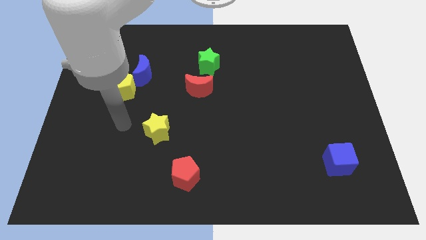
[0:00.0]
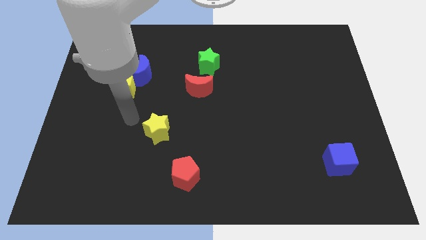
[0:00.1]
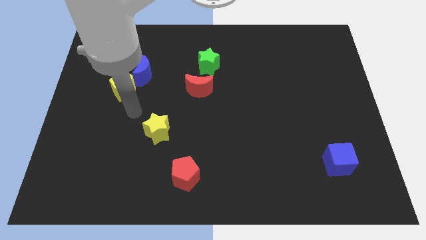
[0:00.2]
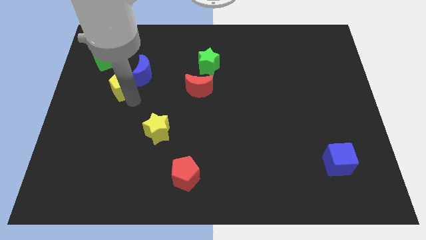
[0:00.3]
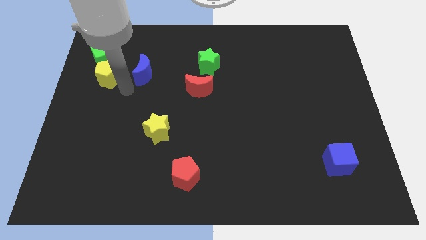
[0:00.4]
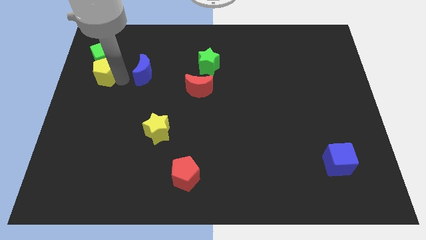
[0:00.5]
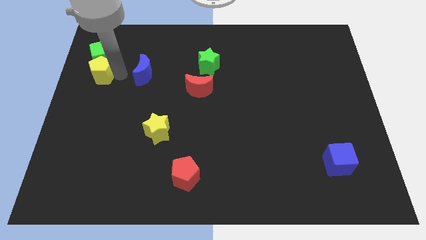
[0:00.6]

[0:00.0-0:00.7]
move the blue moon away from the yellow pentagon

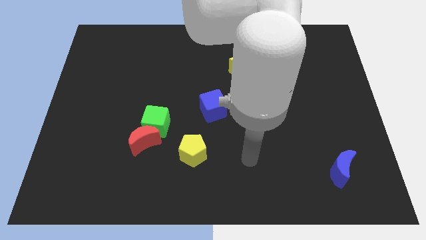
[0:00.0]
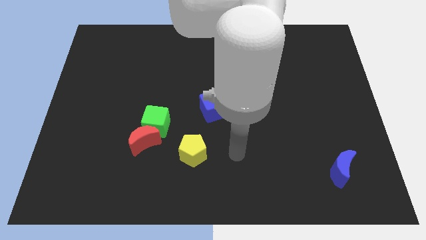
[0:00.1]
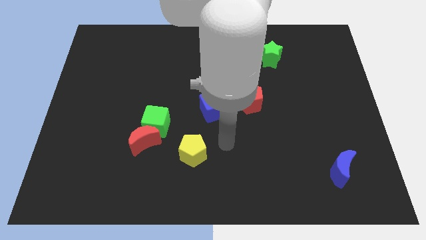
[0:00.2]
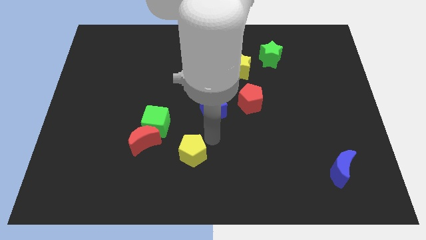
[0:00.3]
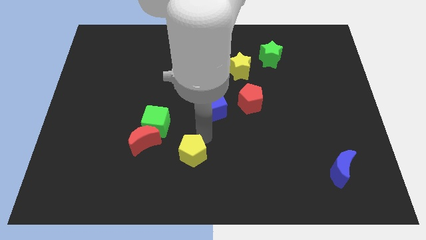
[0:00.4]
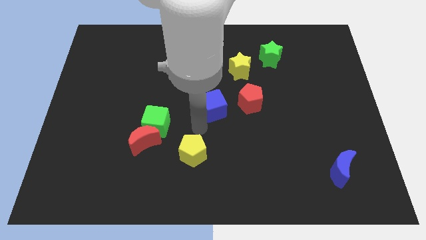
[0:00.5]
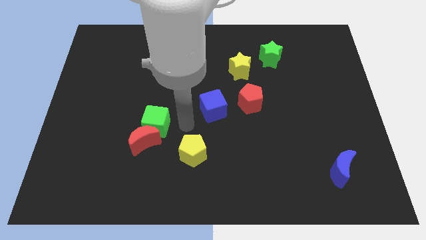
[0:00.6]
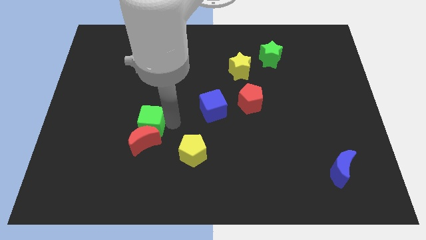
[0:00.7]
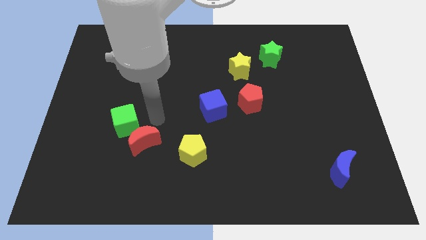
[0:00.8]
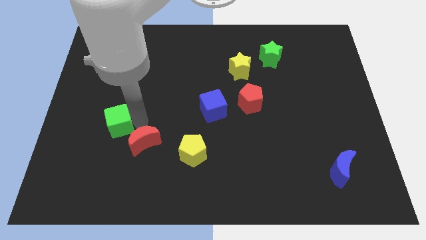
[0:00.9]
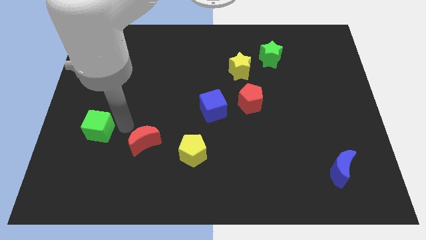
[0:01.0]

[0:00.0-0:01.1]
move the red moon away from the green cube

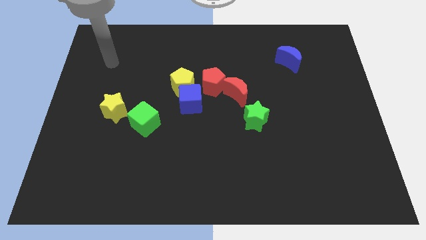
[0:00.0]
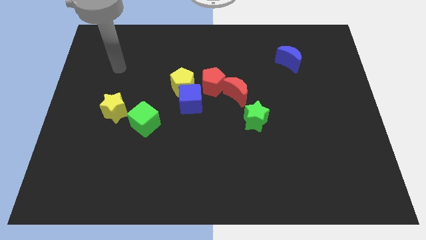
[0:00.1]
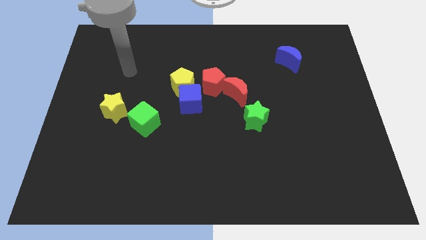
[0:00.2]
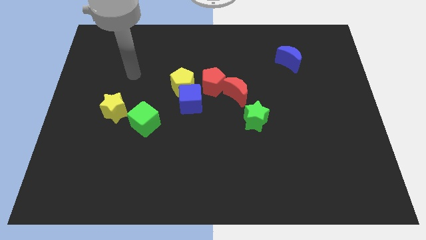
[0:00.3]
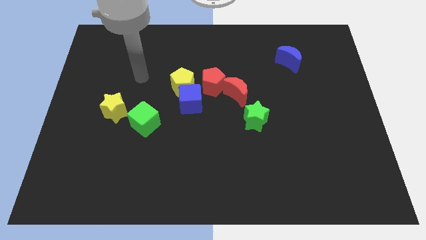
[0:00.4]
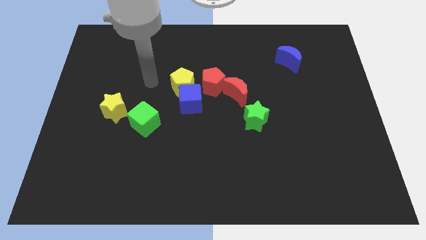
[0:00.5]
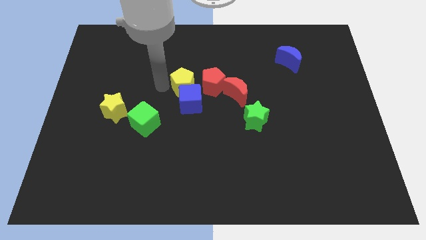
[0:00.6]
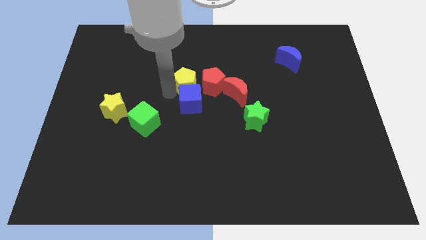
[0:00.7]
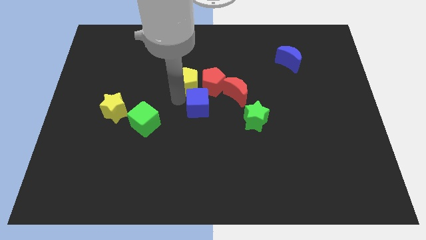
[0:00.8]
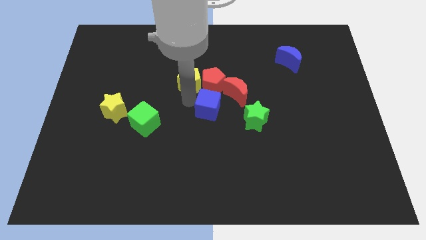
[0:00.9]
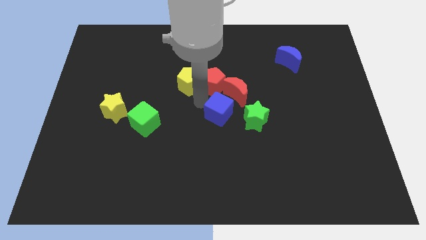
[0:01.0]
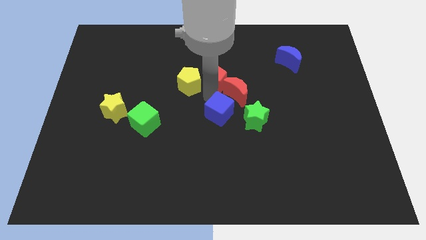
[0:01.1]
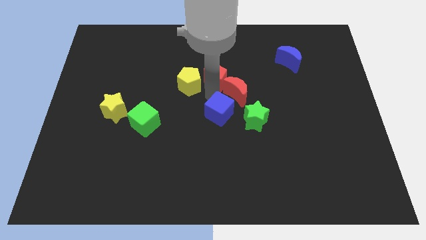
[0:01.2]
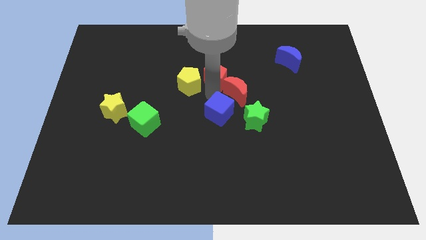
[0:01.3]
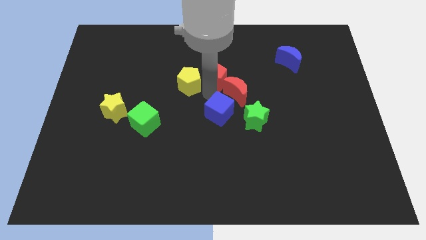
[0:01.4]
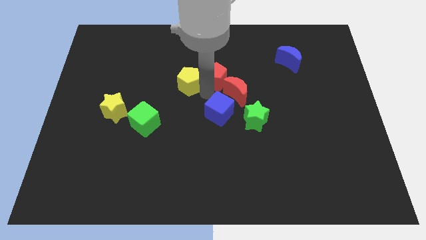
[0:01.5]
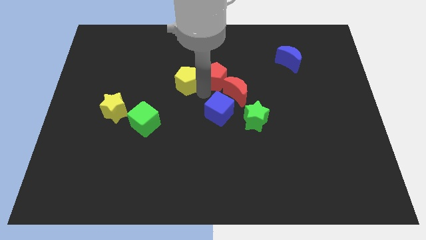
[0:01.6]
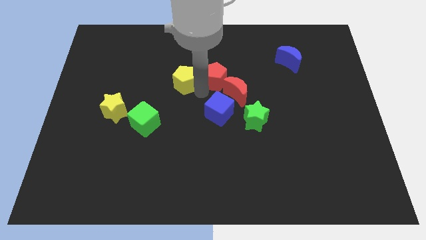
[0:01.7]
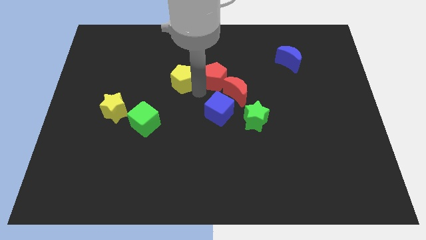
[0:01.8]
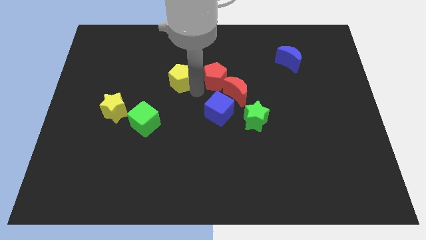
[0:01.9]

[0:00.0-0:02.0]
pull the yellow pentagon apart from the blue cube and red pentagon

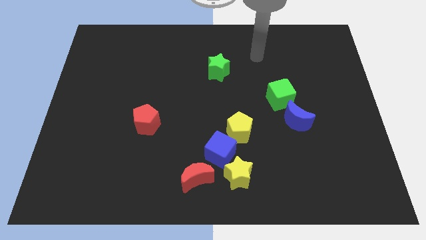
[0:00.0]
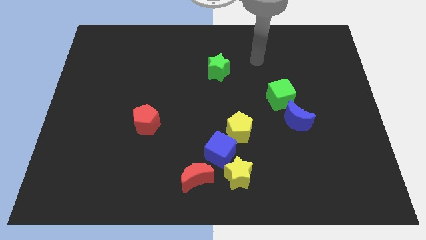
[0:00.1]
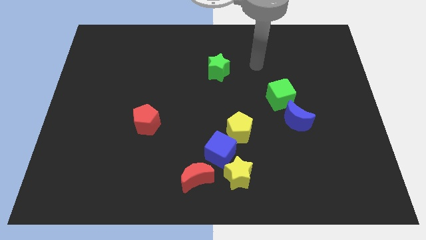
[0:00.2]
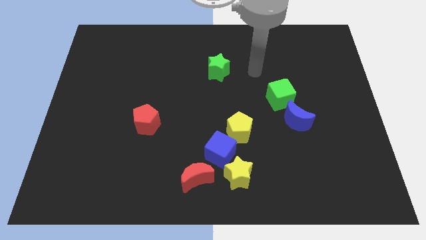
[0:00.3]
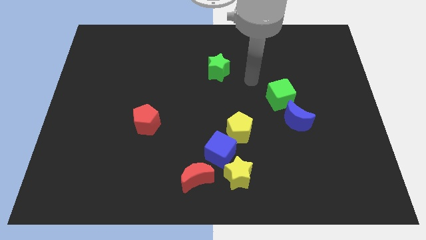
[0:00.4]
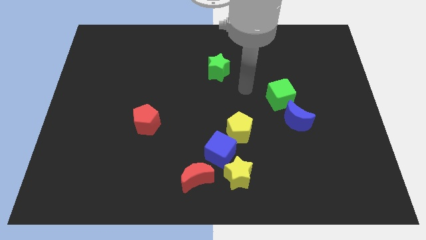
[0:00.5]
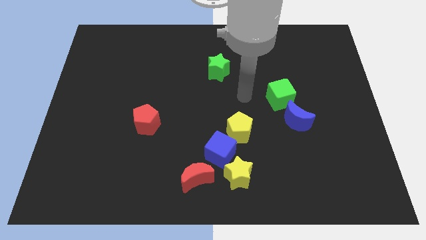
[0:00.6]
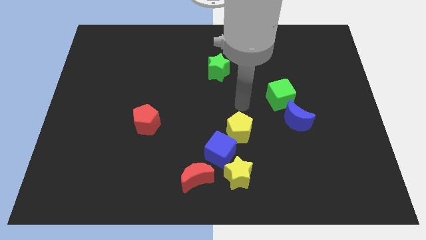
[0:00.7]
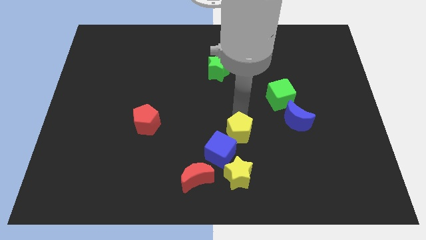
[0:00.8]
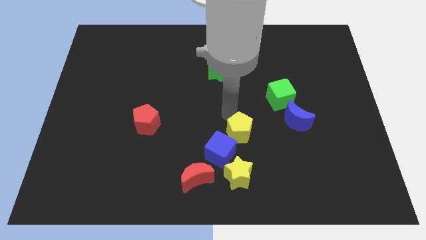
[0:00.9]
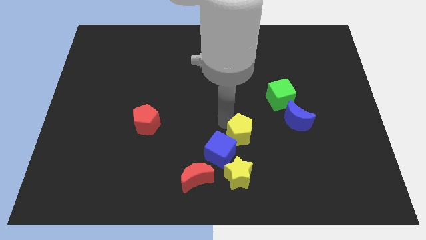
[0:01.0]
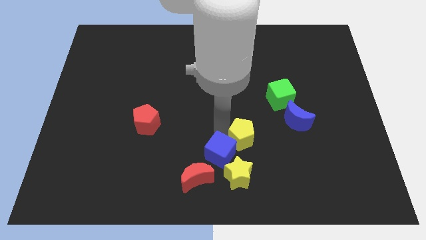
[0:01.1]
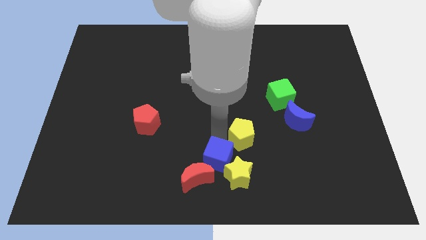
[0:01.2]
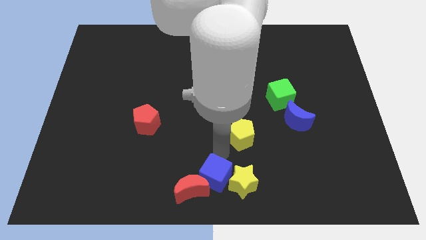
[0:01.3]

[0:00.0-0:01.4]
separate the yellow pentagon from the blue cube

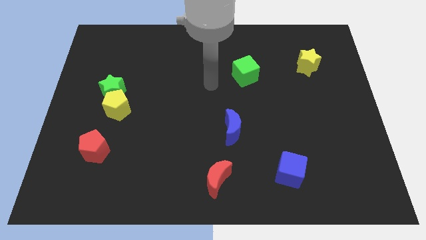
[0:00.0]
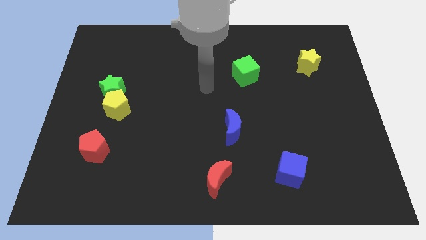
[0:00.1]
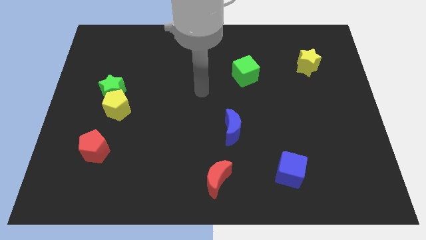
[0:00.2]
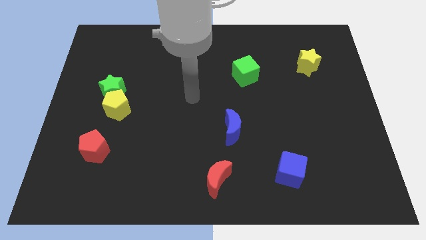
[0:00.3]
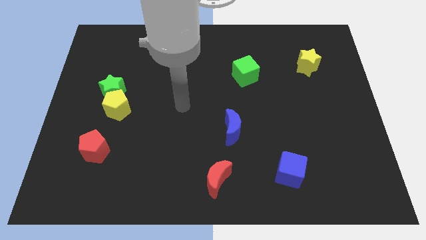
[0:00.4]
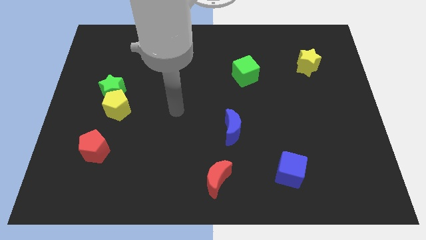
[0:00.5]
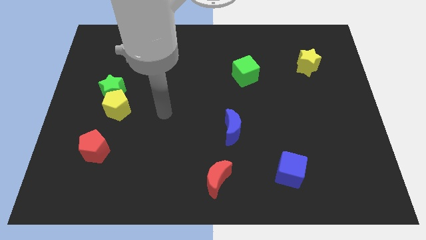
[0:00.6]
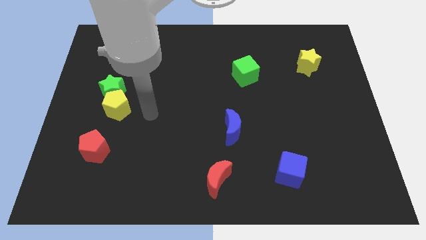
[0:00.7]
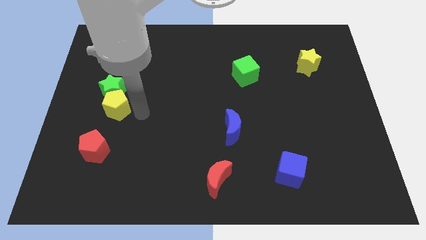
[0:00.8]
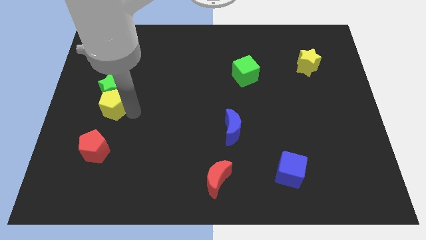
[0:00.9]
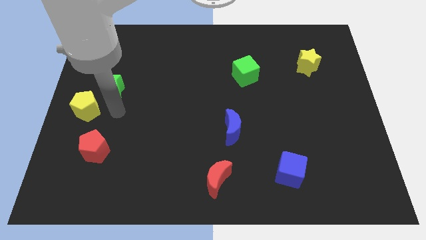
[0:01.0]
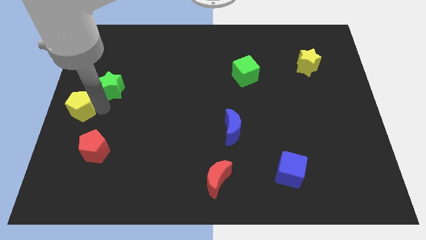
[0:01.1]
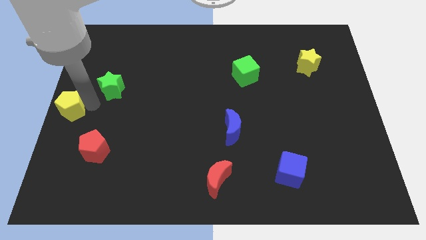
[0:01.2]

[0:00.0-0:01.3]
separate the green star from the yellow pentagon

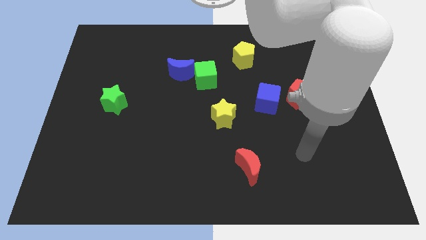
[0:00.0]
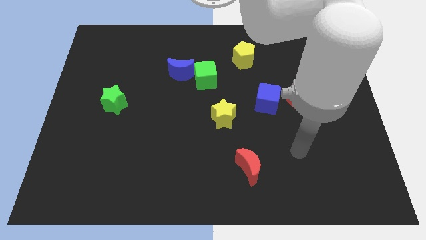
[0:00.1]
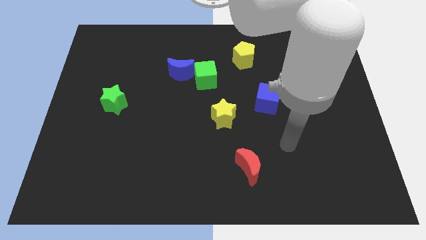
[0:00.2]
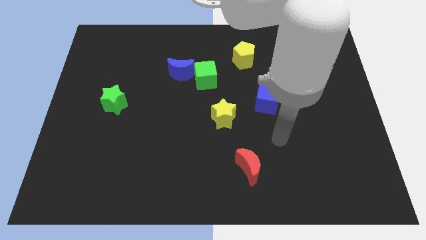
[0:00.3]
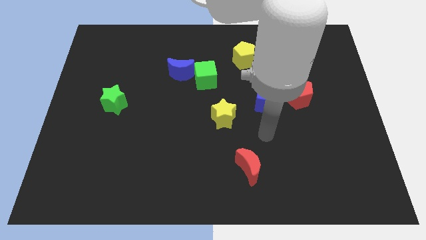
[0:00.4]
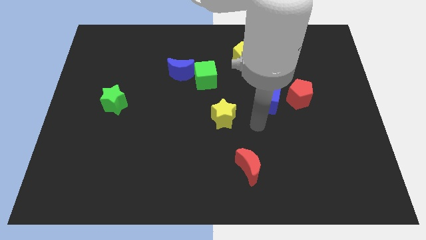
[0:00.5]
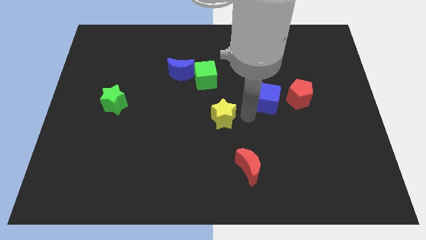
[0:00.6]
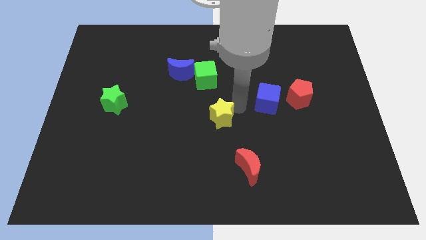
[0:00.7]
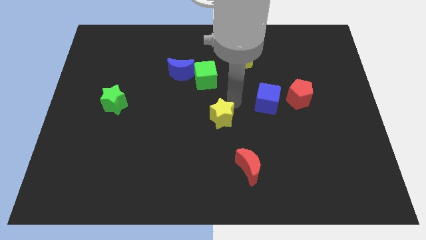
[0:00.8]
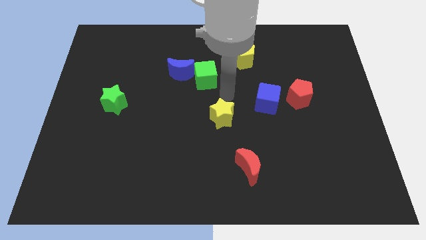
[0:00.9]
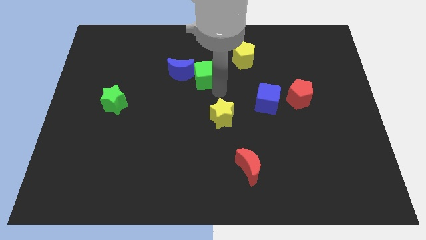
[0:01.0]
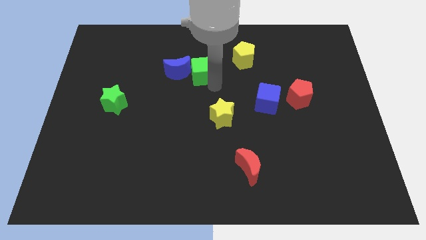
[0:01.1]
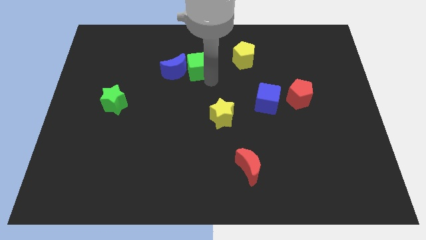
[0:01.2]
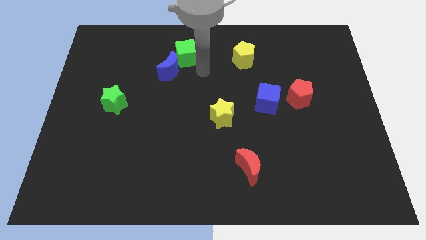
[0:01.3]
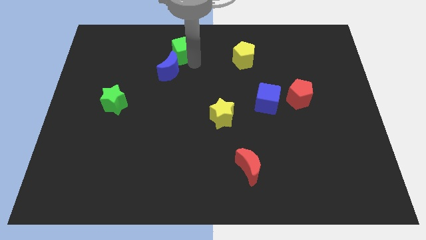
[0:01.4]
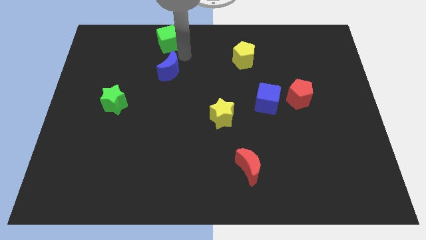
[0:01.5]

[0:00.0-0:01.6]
separate the blue moon from the green cube

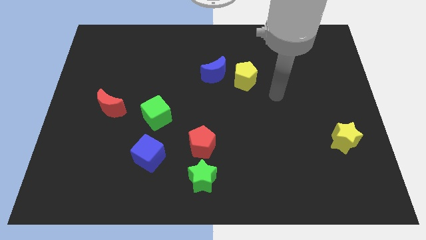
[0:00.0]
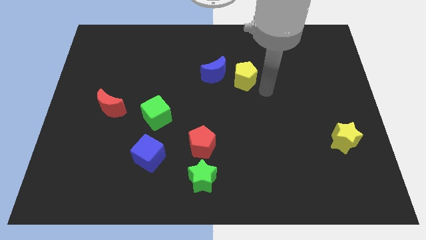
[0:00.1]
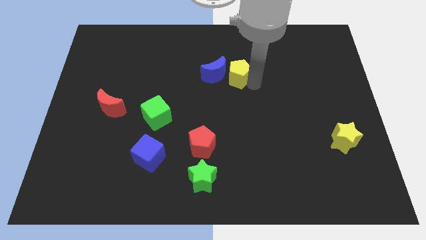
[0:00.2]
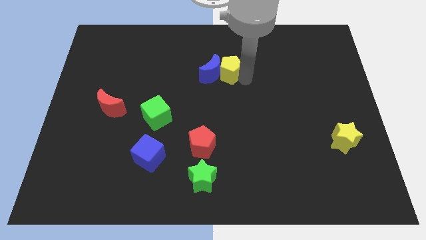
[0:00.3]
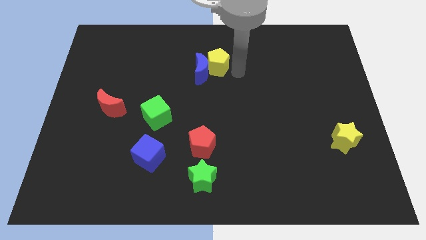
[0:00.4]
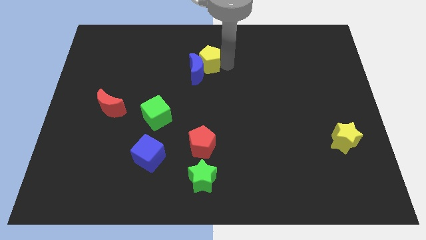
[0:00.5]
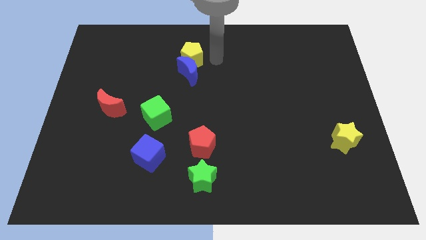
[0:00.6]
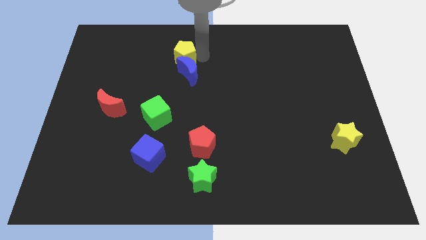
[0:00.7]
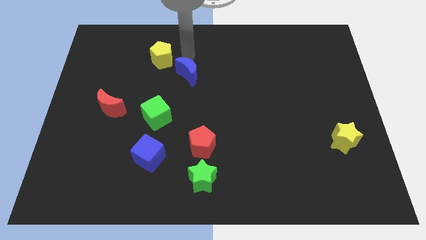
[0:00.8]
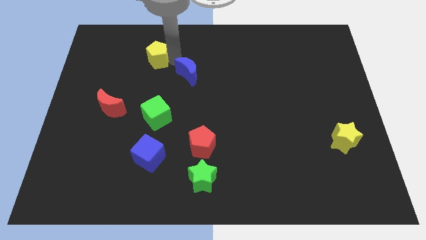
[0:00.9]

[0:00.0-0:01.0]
separate the blue moon from the yellow pentagon
